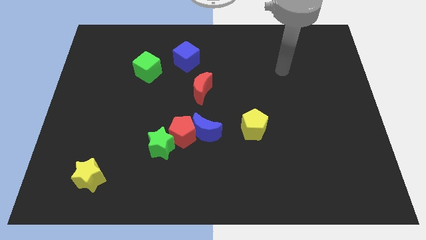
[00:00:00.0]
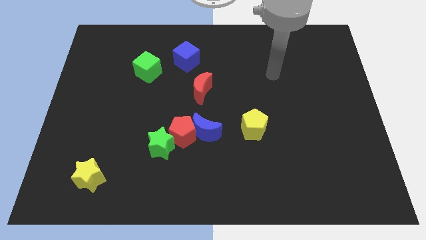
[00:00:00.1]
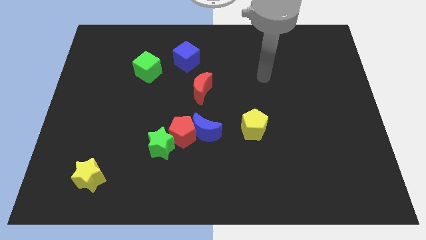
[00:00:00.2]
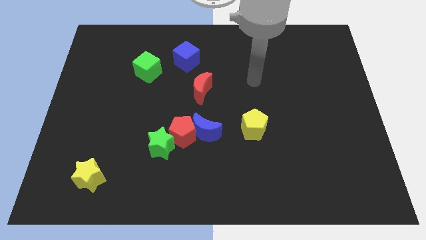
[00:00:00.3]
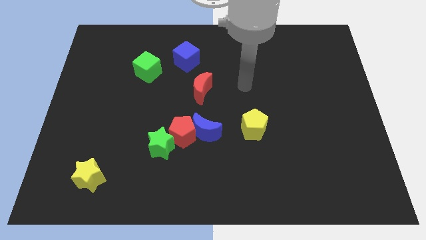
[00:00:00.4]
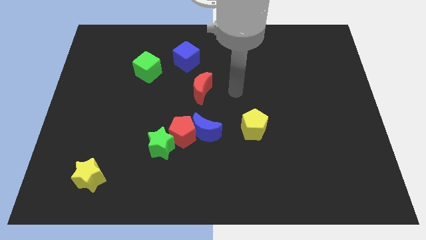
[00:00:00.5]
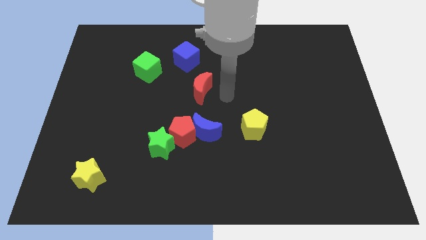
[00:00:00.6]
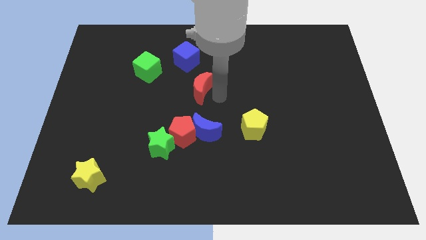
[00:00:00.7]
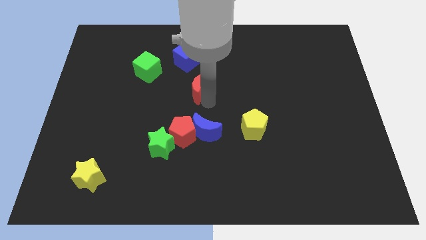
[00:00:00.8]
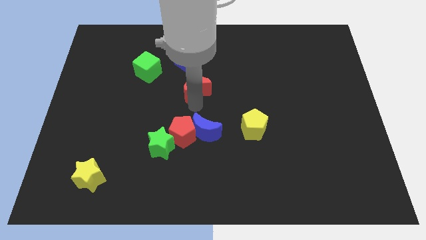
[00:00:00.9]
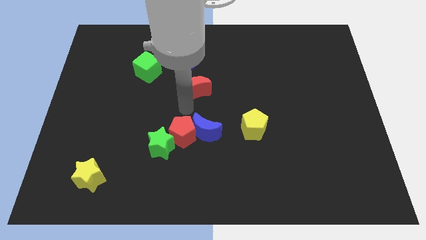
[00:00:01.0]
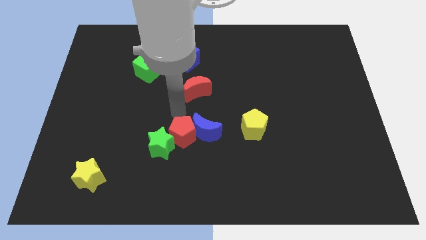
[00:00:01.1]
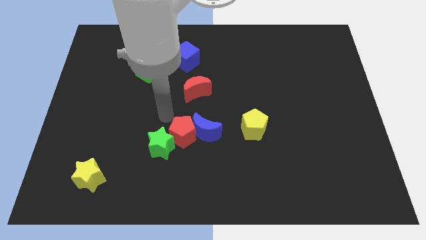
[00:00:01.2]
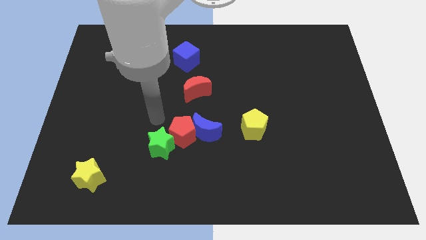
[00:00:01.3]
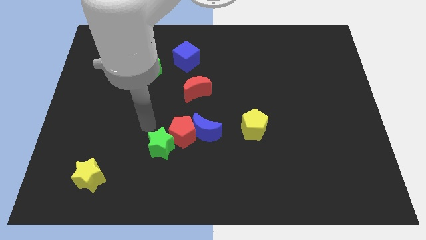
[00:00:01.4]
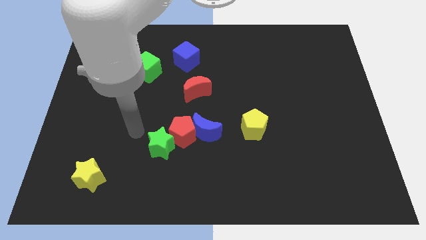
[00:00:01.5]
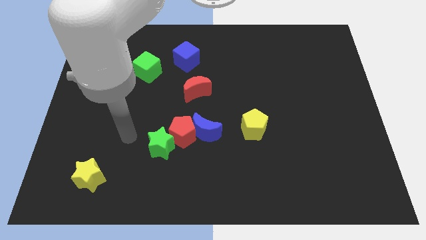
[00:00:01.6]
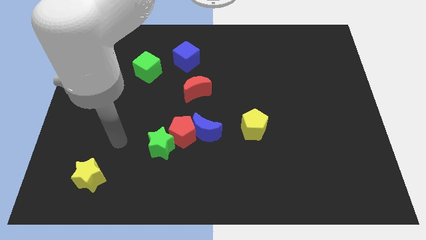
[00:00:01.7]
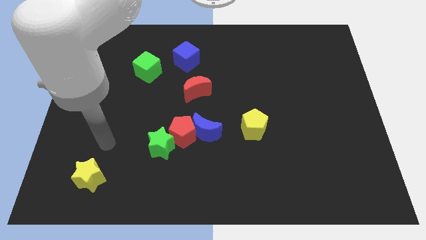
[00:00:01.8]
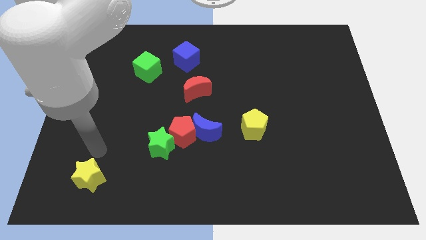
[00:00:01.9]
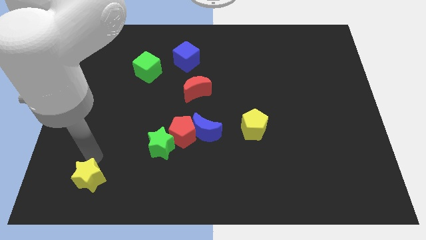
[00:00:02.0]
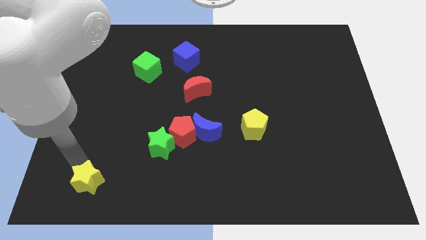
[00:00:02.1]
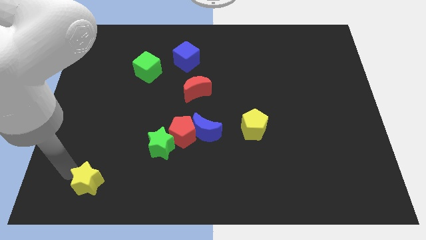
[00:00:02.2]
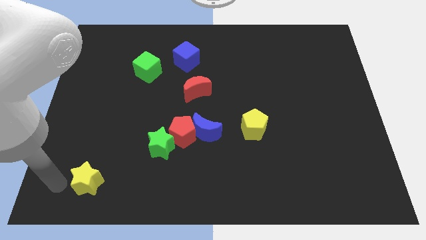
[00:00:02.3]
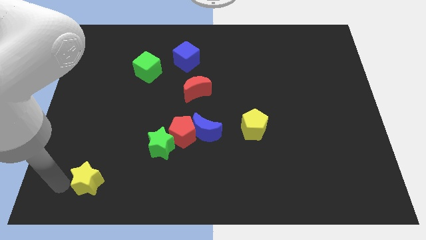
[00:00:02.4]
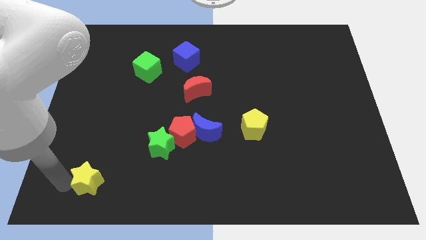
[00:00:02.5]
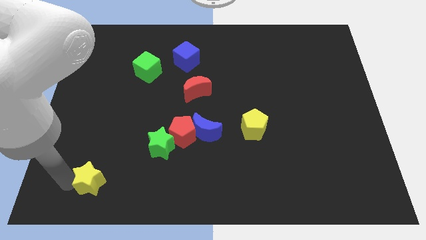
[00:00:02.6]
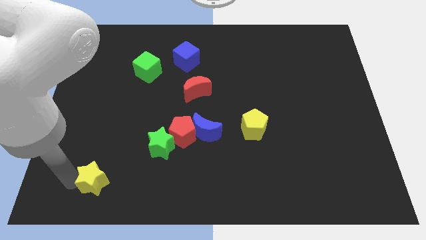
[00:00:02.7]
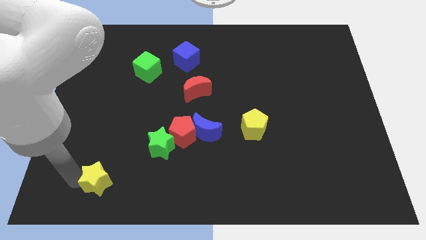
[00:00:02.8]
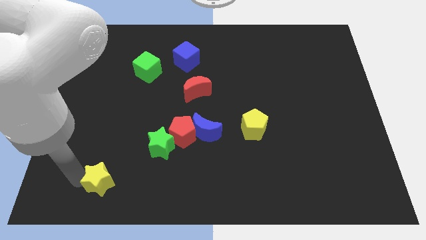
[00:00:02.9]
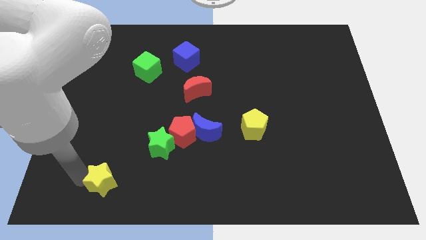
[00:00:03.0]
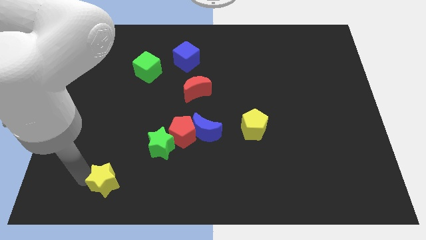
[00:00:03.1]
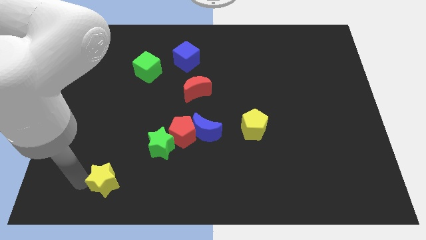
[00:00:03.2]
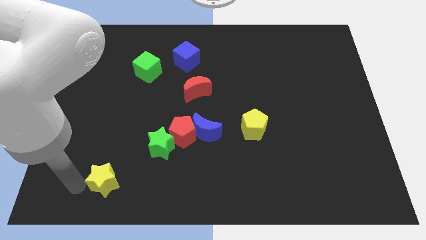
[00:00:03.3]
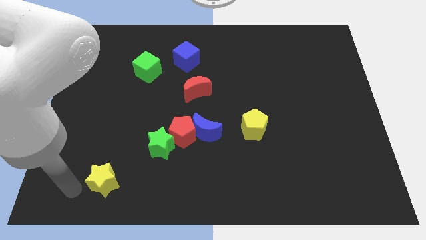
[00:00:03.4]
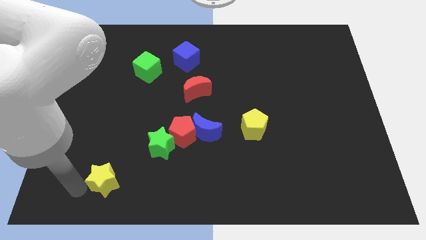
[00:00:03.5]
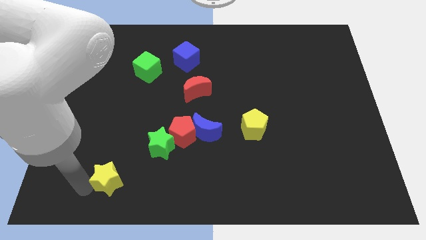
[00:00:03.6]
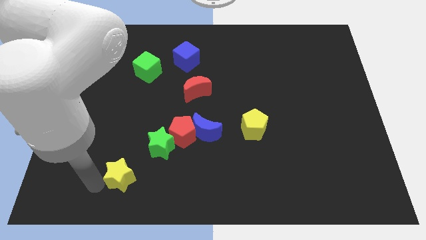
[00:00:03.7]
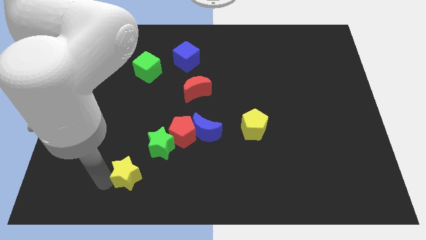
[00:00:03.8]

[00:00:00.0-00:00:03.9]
move the yellow star right a little

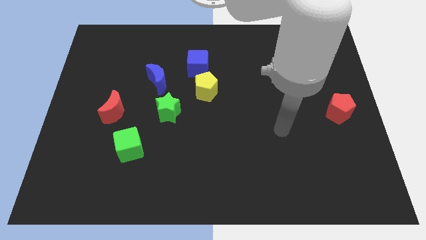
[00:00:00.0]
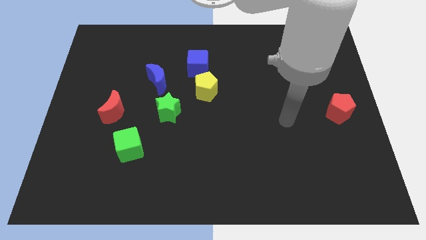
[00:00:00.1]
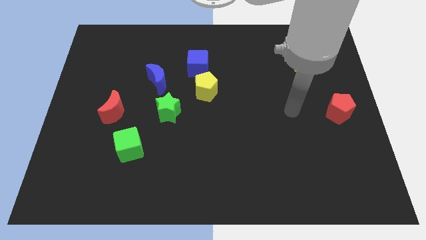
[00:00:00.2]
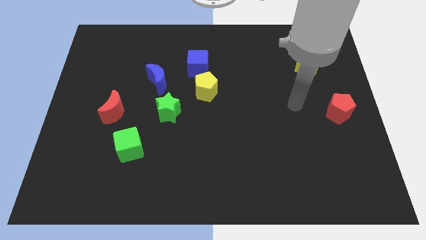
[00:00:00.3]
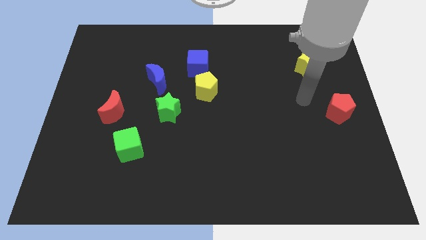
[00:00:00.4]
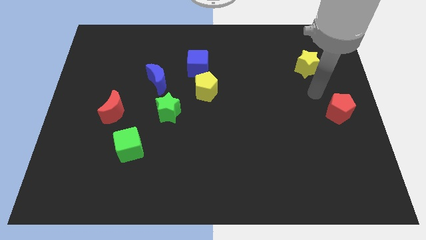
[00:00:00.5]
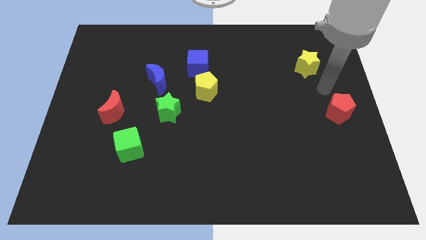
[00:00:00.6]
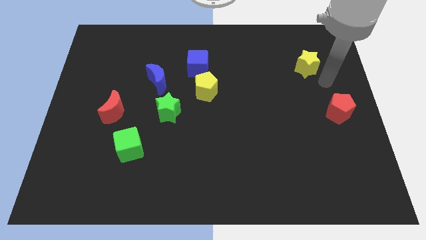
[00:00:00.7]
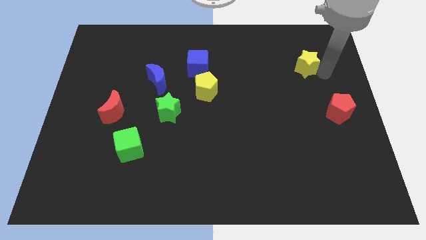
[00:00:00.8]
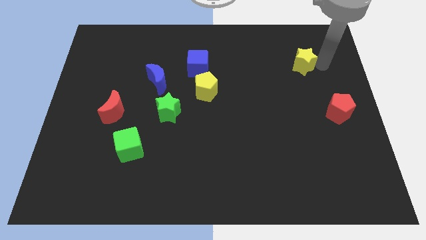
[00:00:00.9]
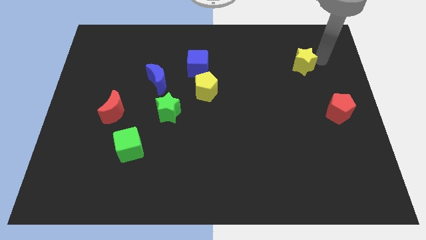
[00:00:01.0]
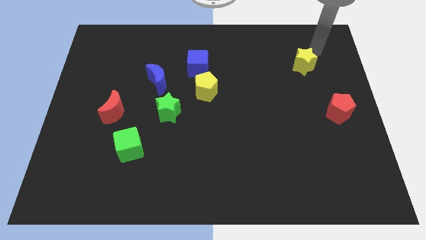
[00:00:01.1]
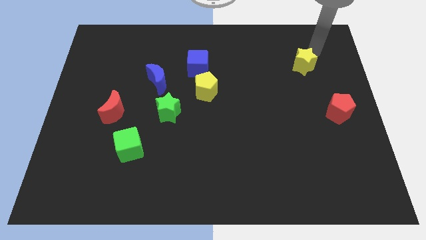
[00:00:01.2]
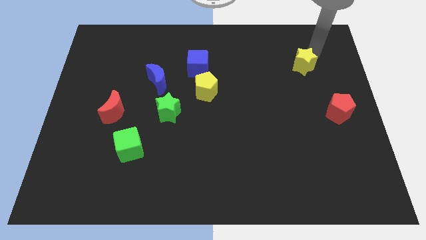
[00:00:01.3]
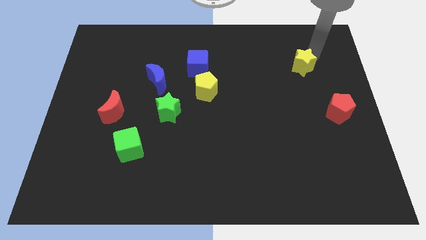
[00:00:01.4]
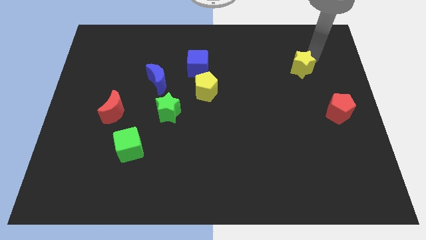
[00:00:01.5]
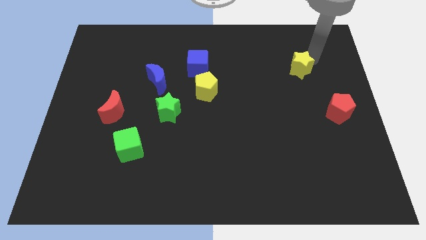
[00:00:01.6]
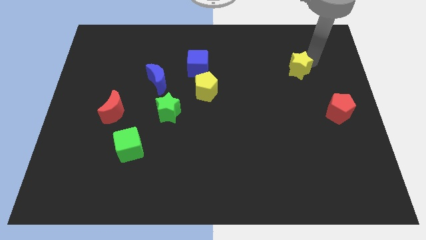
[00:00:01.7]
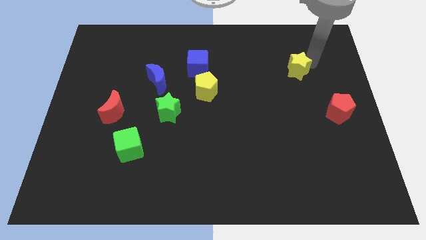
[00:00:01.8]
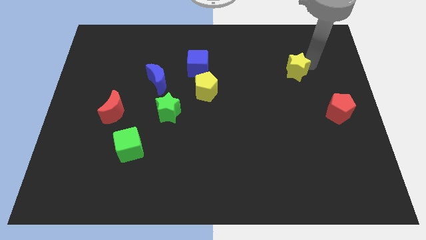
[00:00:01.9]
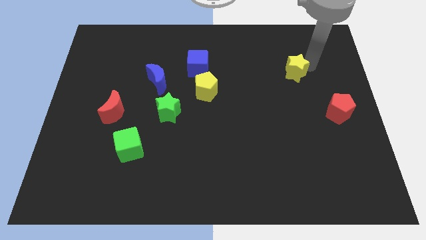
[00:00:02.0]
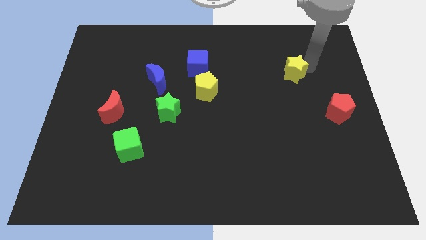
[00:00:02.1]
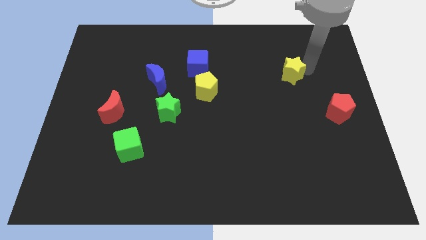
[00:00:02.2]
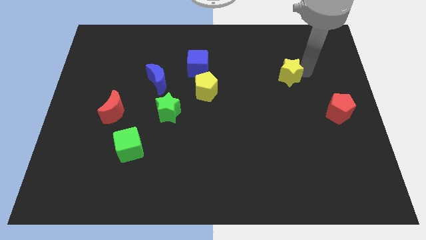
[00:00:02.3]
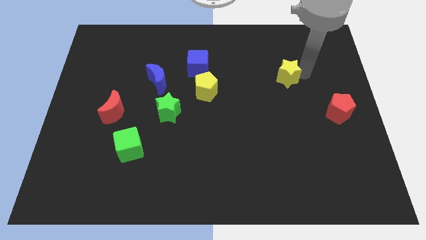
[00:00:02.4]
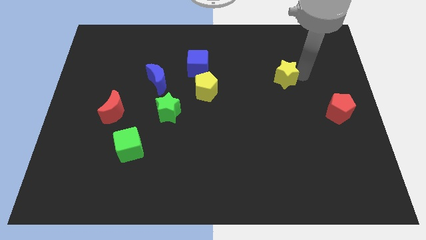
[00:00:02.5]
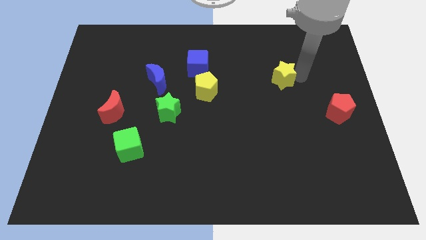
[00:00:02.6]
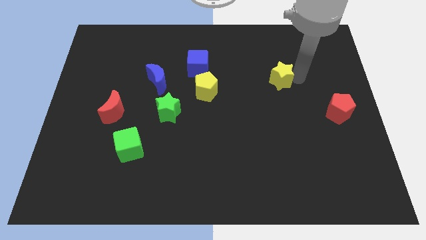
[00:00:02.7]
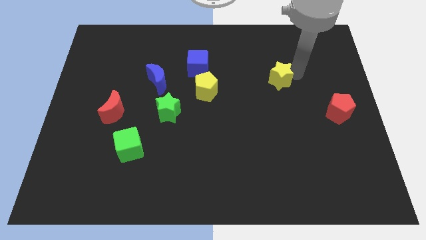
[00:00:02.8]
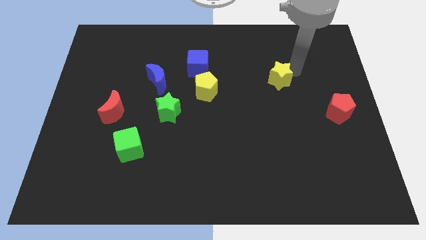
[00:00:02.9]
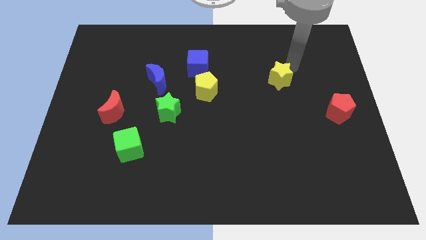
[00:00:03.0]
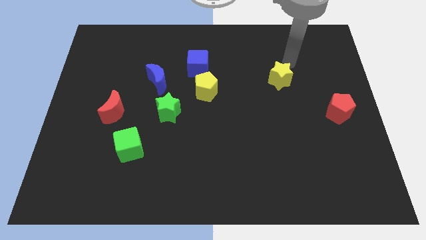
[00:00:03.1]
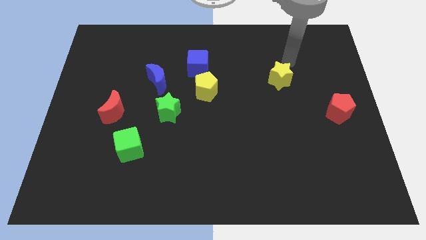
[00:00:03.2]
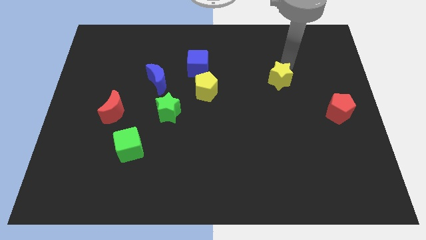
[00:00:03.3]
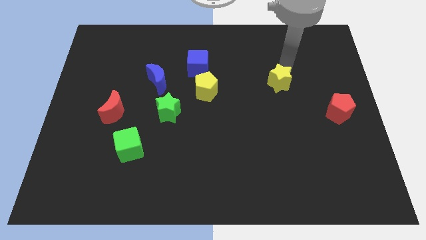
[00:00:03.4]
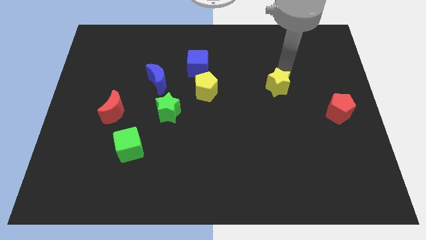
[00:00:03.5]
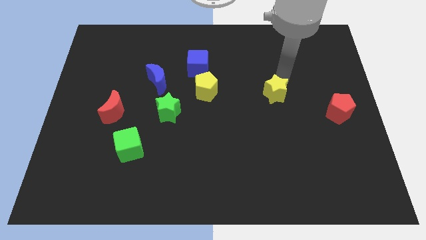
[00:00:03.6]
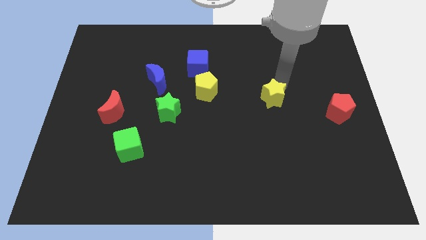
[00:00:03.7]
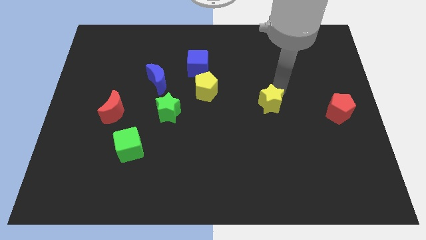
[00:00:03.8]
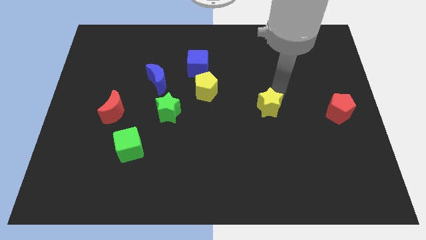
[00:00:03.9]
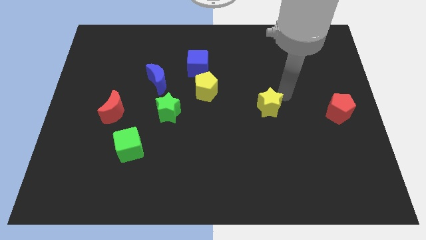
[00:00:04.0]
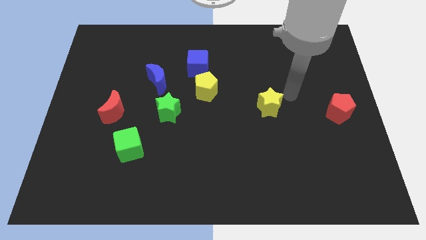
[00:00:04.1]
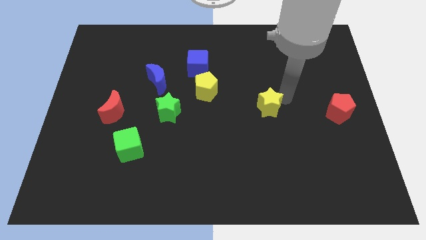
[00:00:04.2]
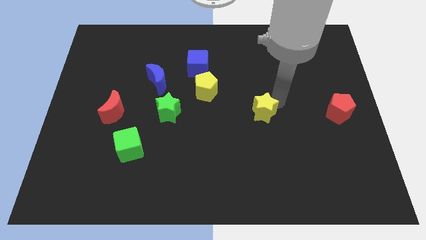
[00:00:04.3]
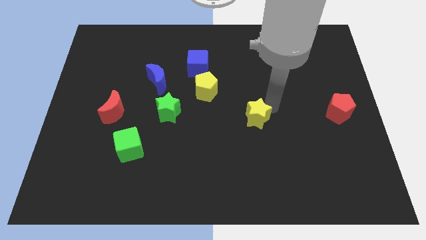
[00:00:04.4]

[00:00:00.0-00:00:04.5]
slide the yellow star downwards and left

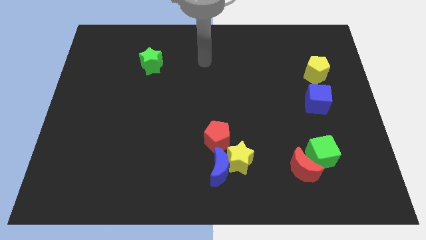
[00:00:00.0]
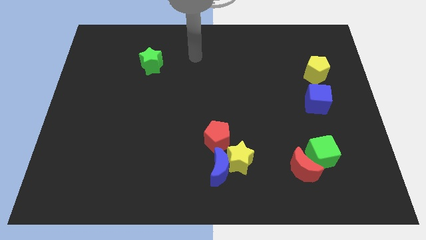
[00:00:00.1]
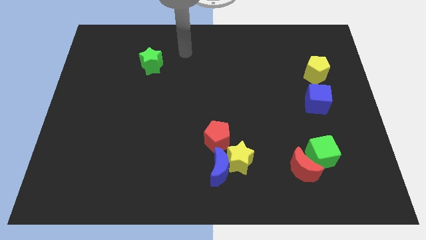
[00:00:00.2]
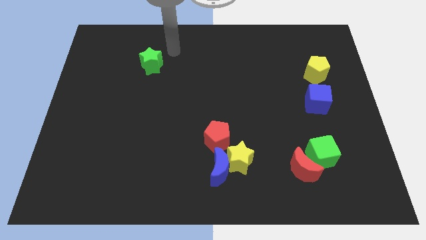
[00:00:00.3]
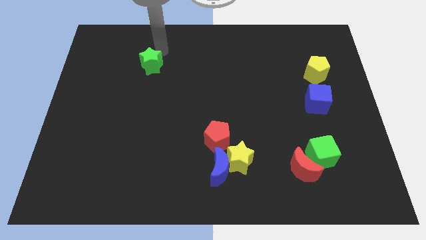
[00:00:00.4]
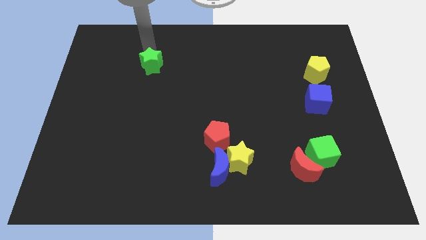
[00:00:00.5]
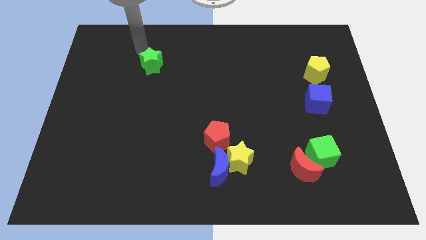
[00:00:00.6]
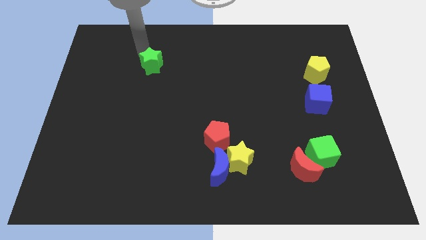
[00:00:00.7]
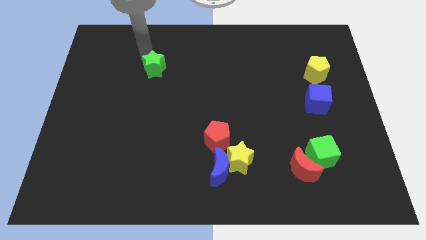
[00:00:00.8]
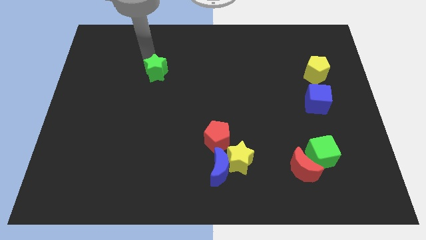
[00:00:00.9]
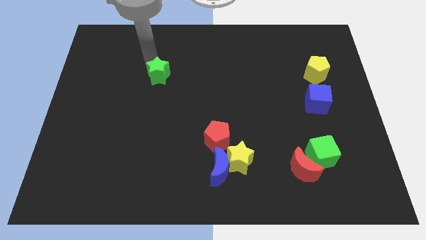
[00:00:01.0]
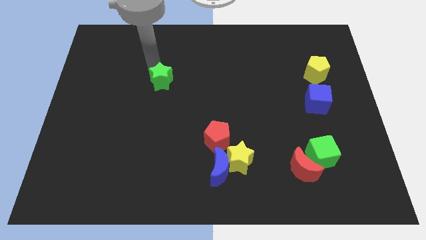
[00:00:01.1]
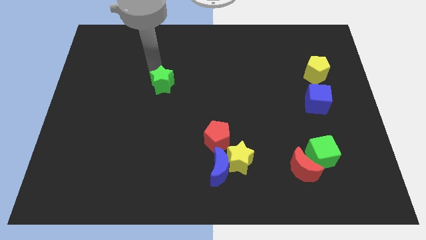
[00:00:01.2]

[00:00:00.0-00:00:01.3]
slightly push the green star downwards and to the right
